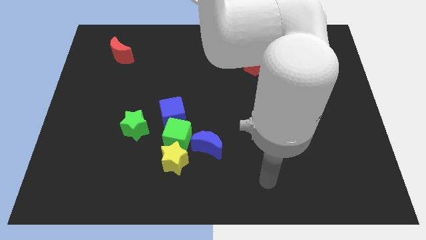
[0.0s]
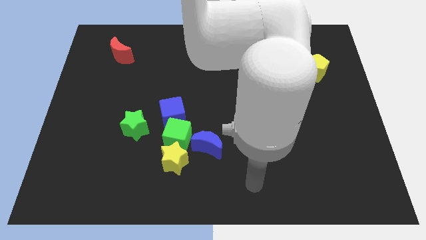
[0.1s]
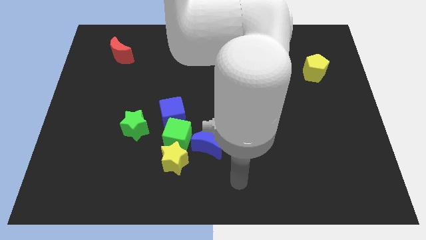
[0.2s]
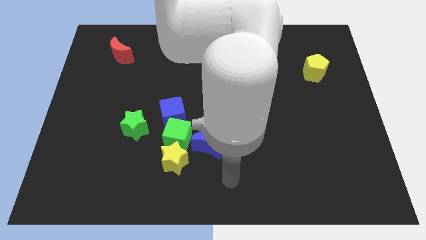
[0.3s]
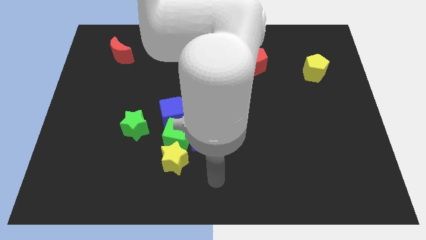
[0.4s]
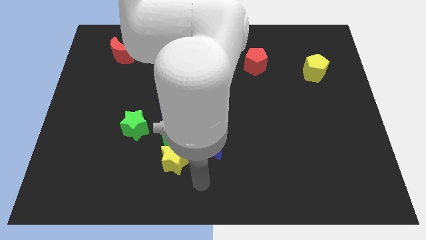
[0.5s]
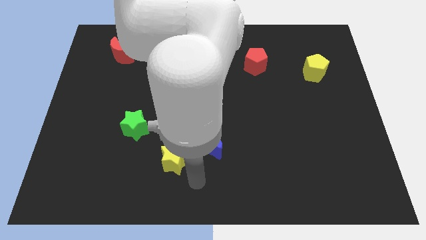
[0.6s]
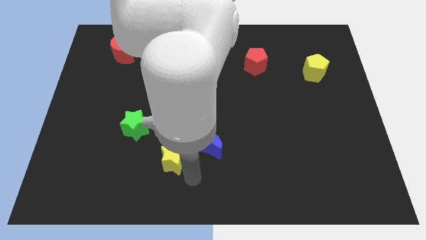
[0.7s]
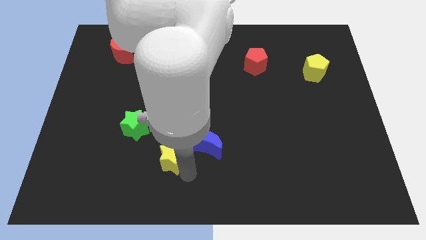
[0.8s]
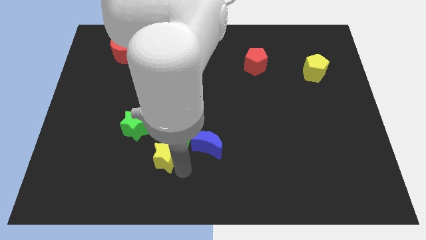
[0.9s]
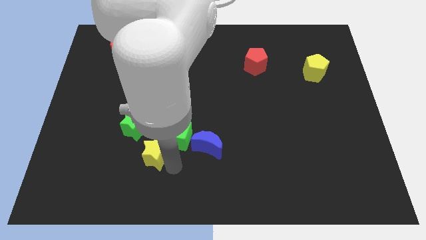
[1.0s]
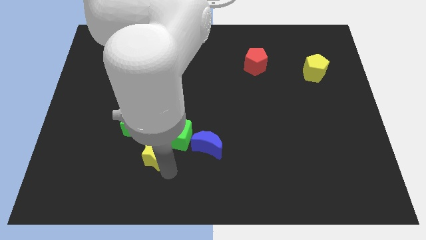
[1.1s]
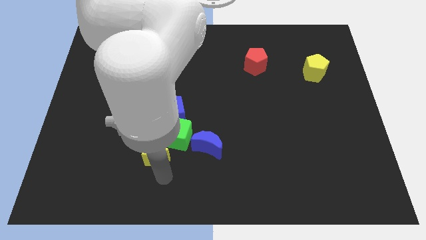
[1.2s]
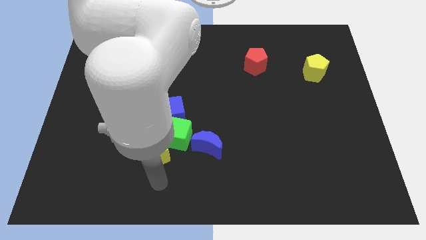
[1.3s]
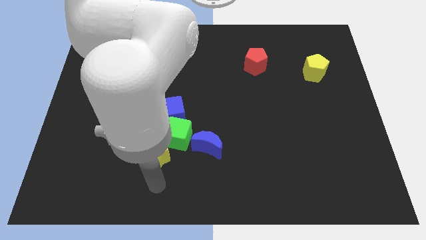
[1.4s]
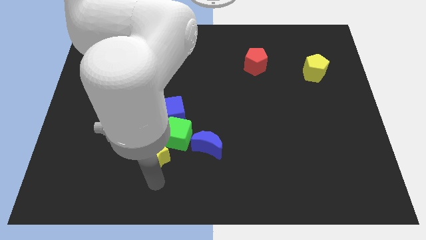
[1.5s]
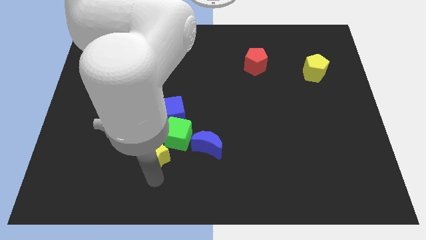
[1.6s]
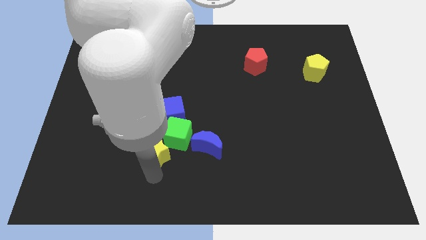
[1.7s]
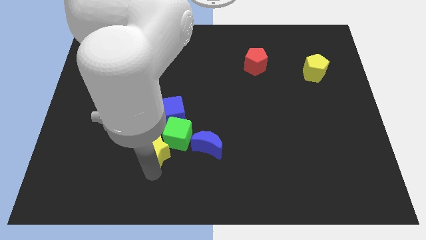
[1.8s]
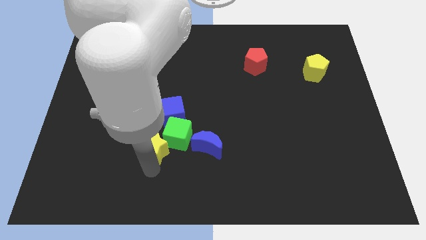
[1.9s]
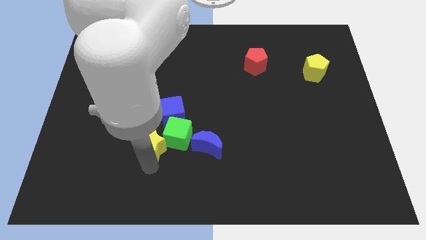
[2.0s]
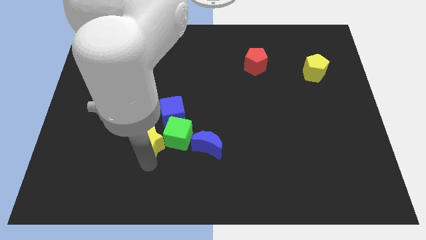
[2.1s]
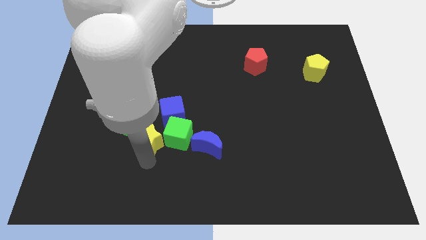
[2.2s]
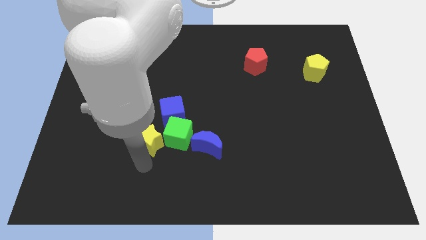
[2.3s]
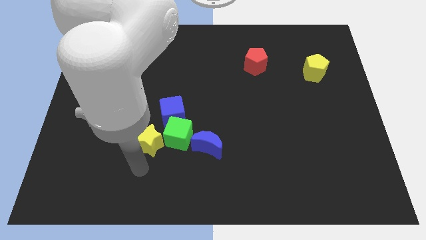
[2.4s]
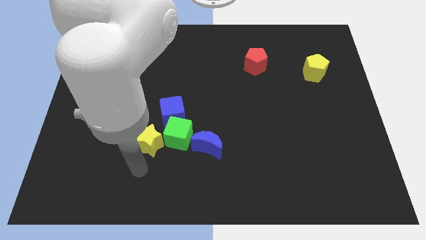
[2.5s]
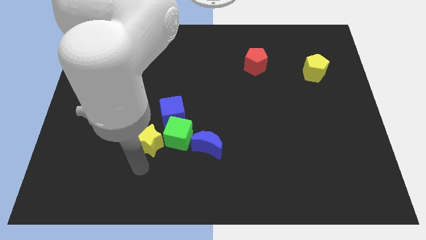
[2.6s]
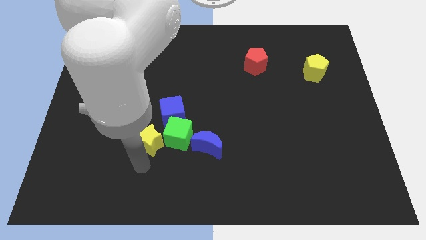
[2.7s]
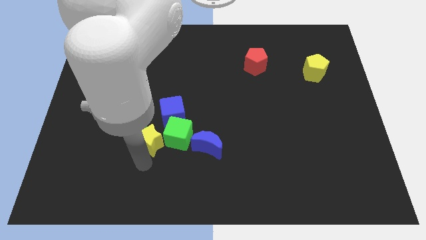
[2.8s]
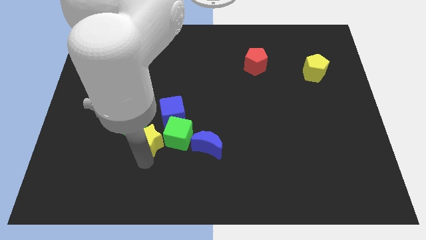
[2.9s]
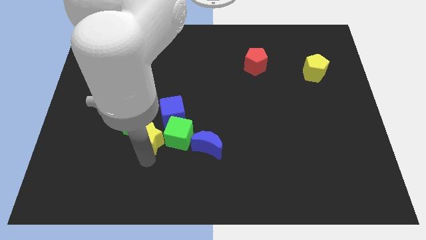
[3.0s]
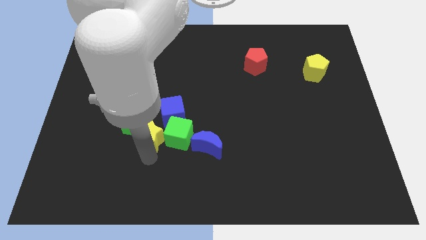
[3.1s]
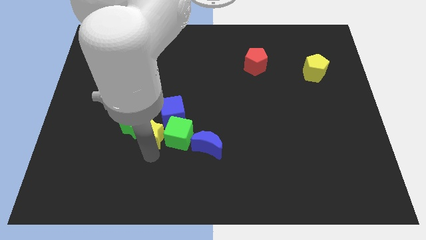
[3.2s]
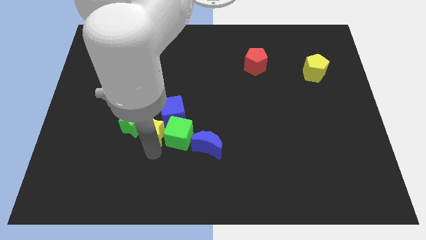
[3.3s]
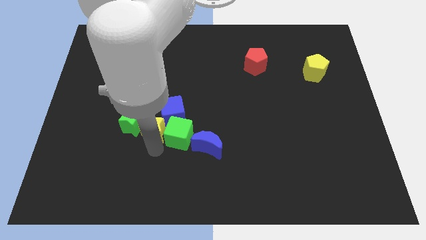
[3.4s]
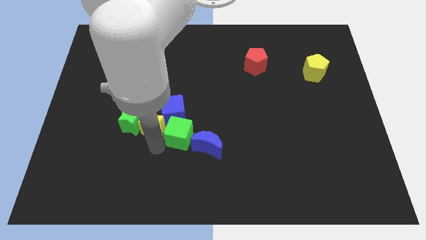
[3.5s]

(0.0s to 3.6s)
push the yellow star a little upwards

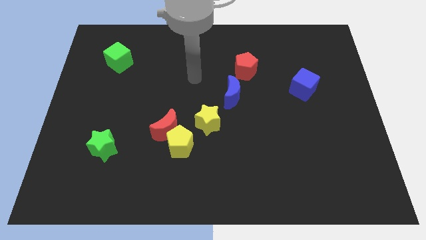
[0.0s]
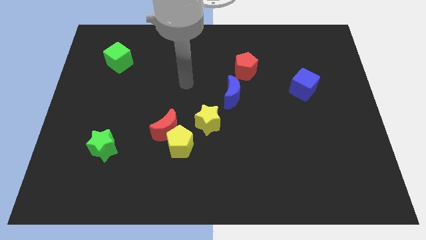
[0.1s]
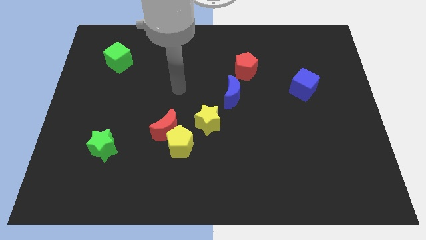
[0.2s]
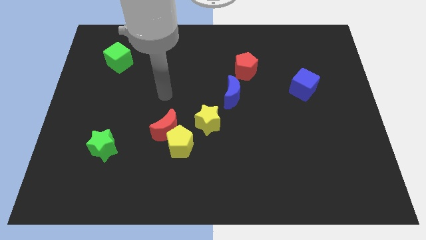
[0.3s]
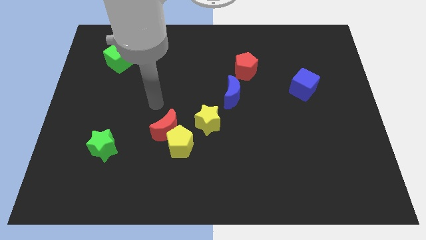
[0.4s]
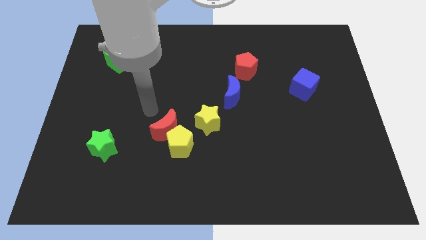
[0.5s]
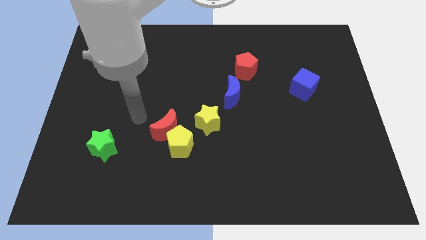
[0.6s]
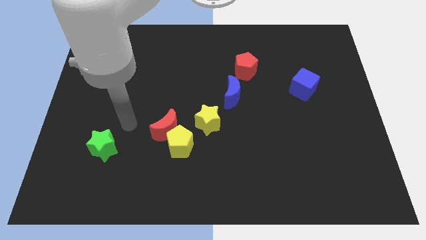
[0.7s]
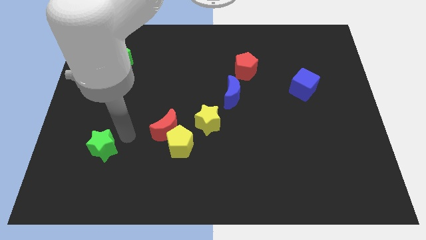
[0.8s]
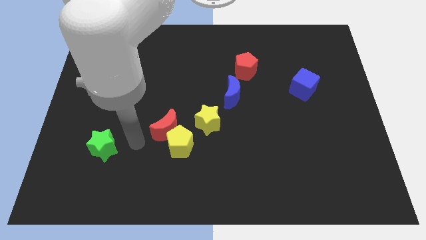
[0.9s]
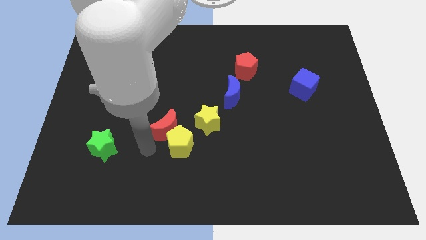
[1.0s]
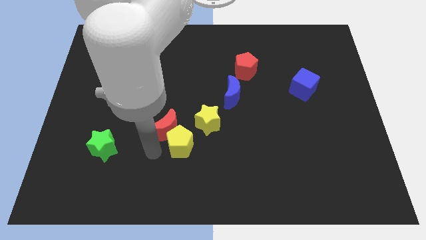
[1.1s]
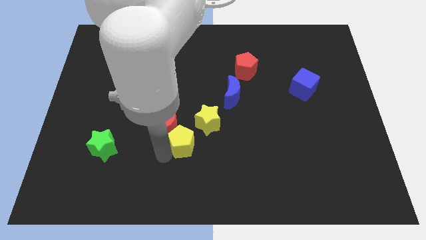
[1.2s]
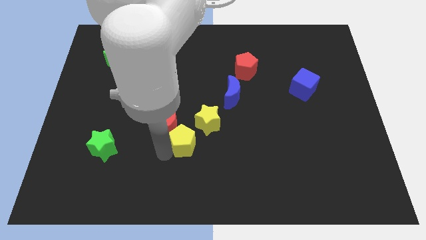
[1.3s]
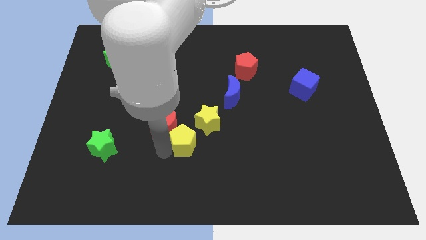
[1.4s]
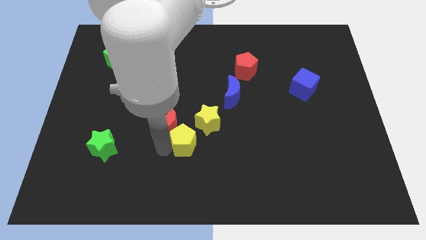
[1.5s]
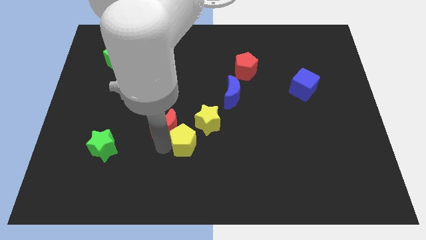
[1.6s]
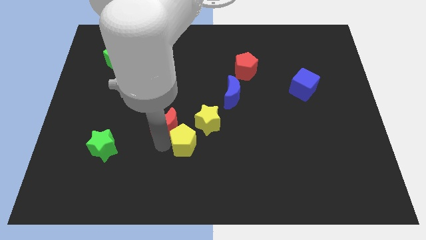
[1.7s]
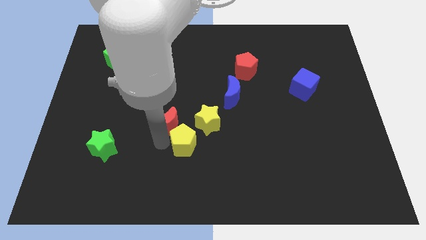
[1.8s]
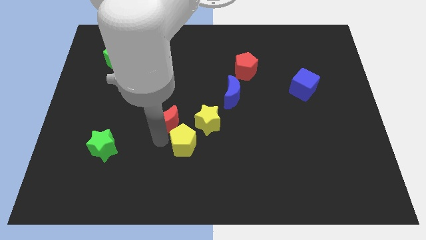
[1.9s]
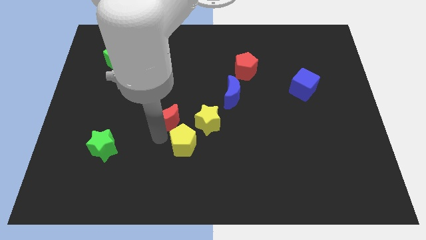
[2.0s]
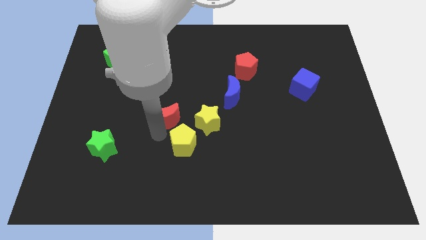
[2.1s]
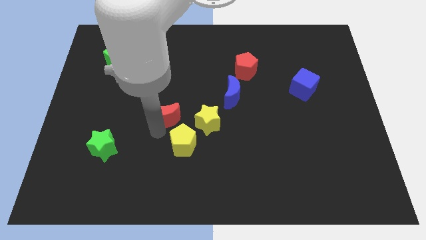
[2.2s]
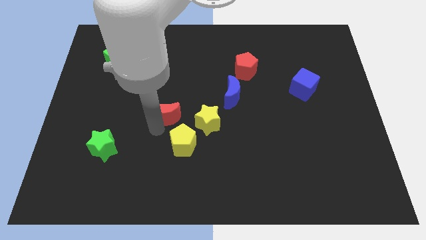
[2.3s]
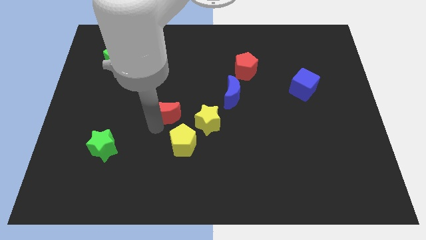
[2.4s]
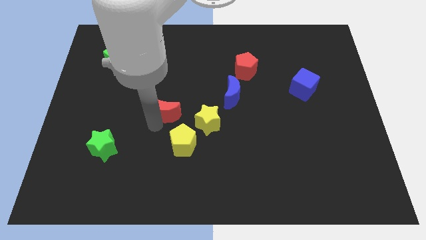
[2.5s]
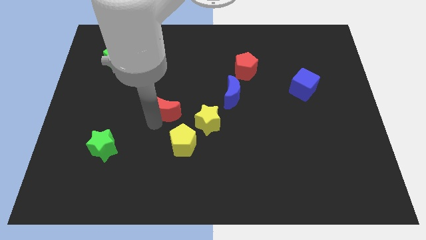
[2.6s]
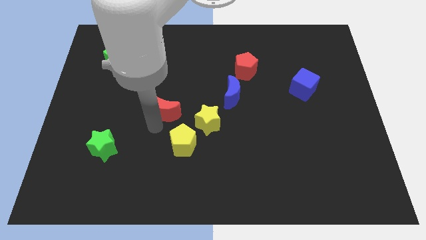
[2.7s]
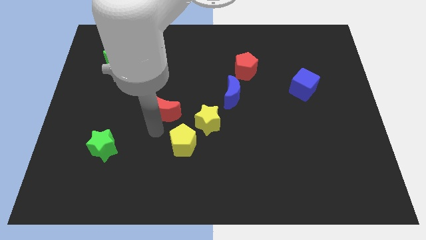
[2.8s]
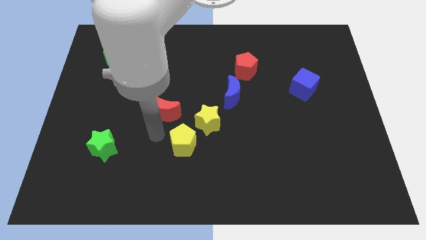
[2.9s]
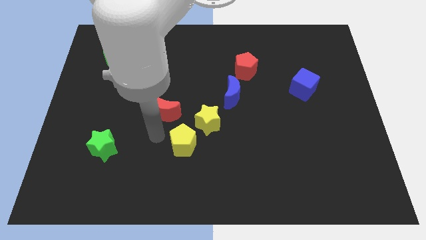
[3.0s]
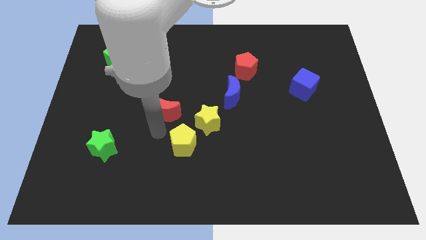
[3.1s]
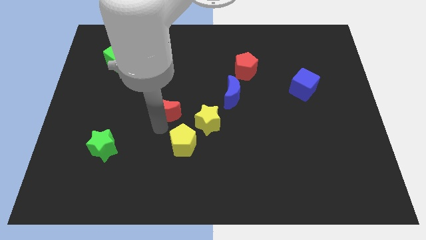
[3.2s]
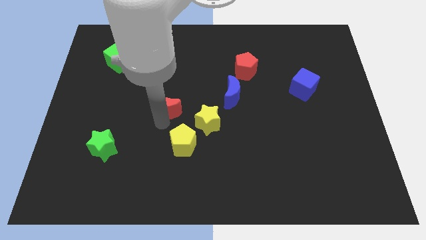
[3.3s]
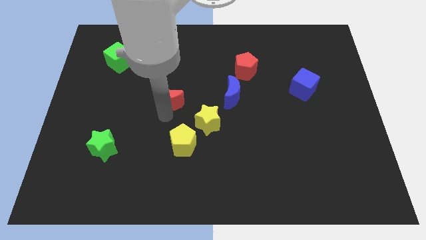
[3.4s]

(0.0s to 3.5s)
push the red moon slightly upwards

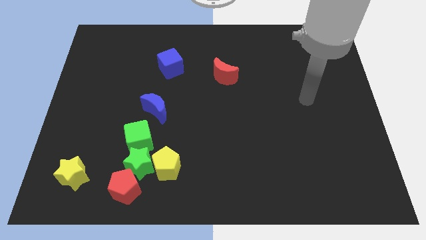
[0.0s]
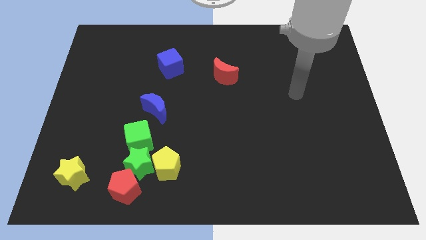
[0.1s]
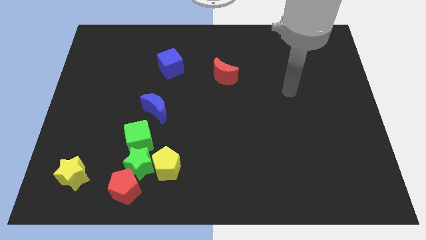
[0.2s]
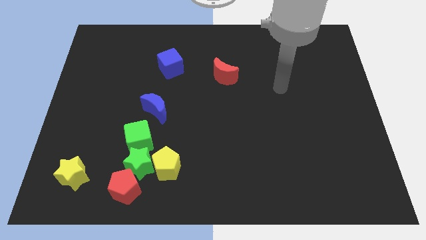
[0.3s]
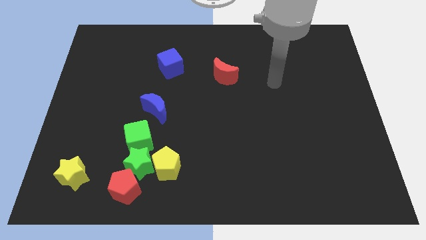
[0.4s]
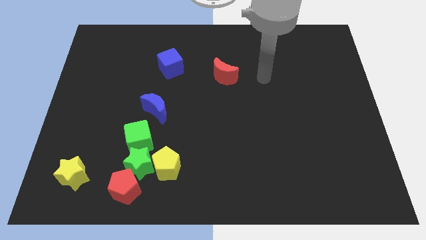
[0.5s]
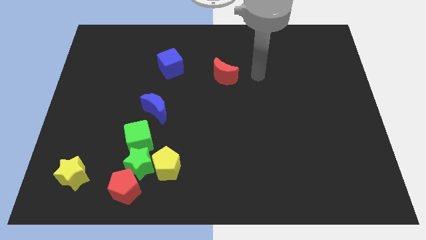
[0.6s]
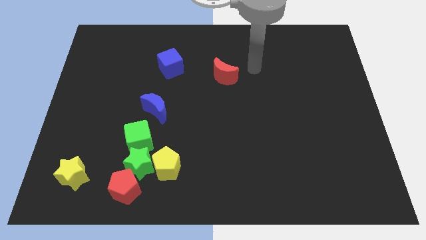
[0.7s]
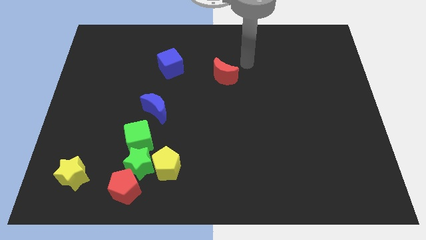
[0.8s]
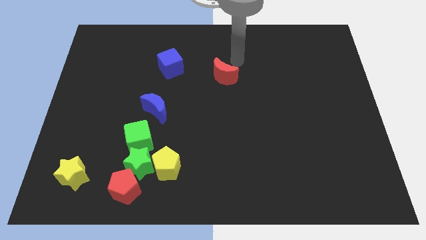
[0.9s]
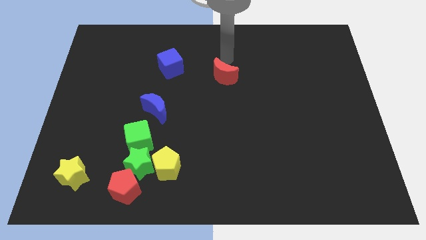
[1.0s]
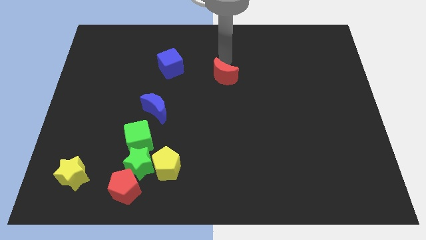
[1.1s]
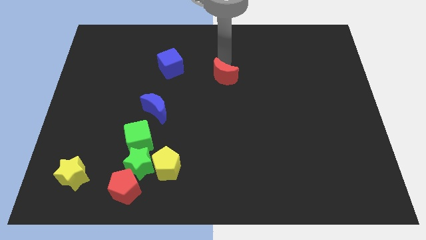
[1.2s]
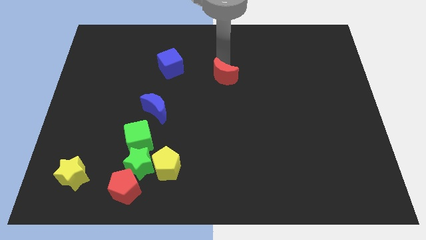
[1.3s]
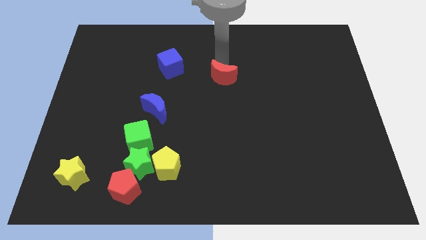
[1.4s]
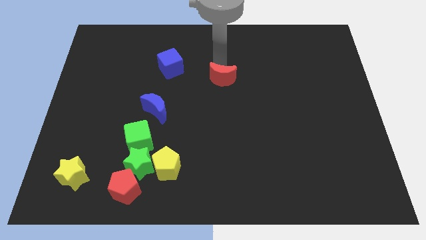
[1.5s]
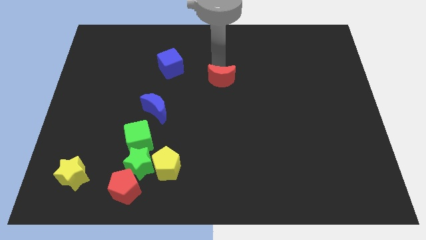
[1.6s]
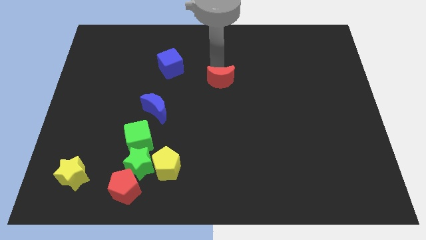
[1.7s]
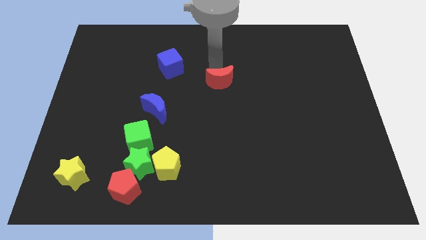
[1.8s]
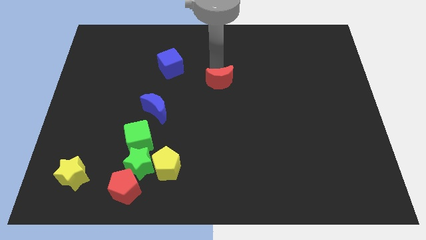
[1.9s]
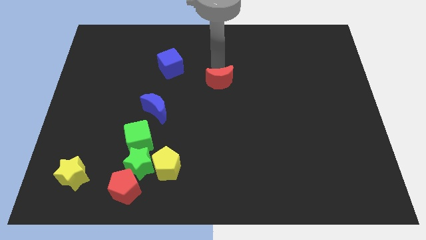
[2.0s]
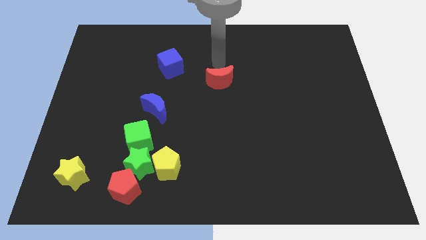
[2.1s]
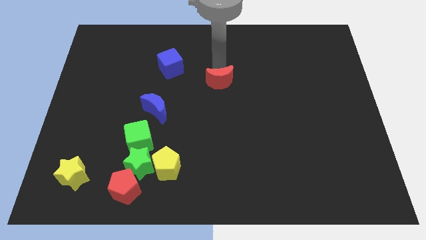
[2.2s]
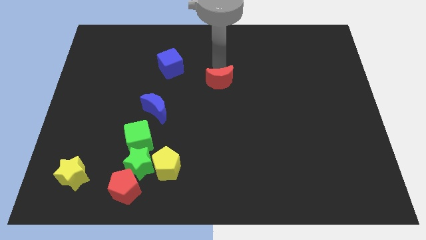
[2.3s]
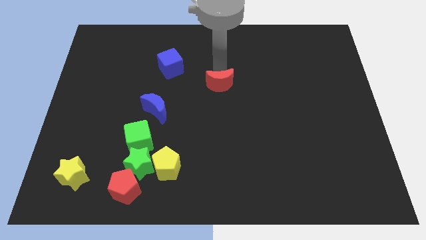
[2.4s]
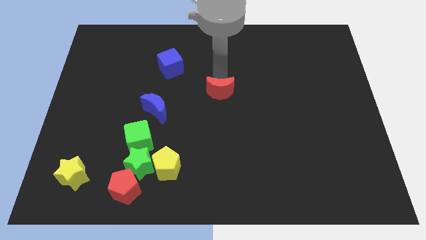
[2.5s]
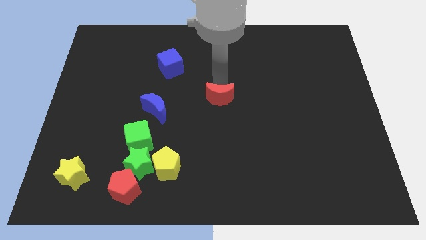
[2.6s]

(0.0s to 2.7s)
slightly slide the red moon down
